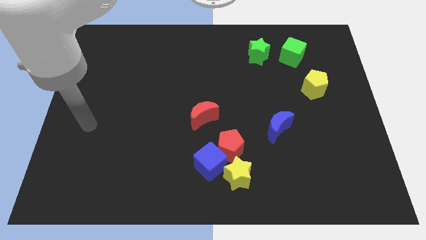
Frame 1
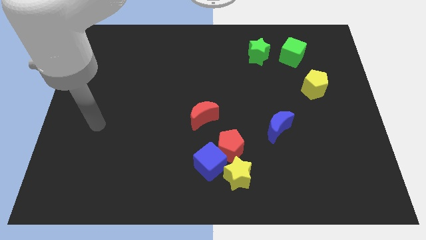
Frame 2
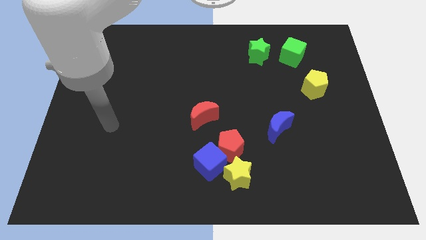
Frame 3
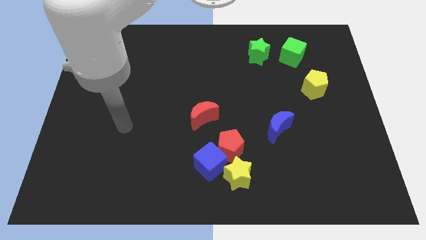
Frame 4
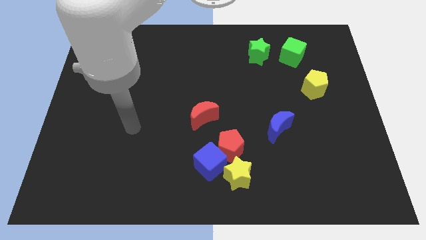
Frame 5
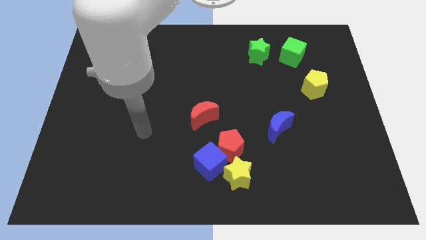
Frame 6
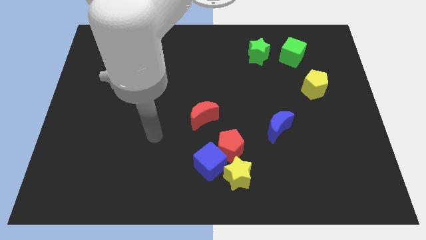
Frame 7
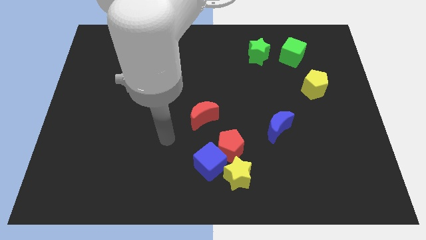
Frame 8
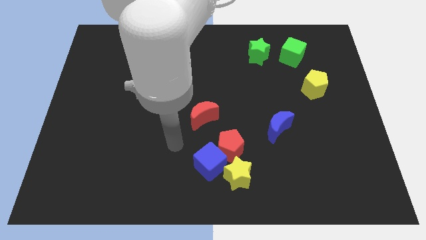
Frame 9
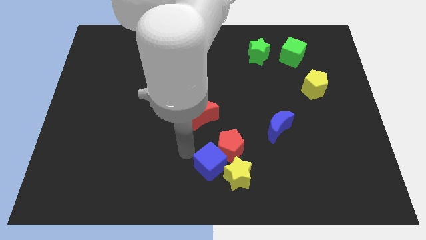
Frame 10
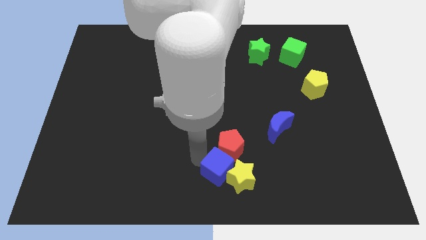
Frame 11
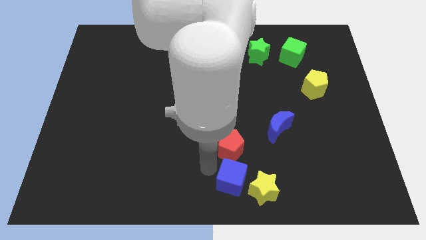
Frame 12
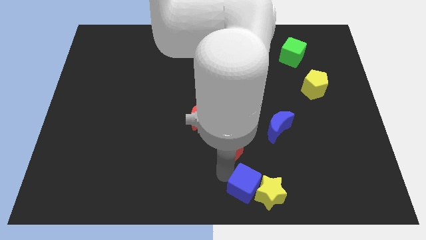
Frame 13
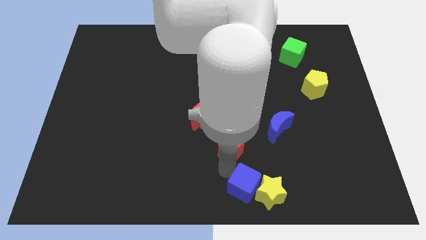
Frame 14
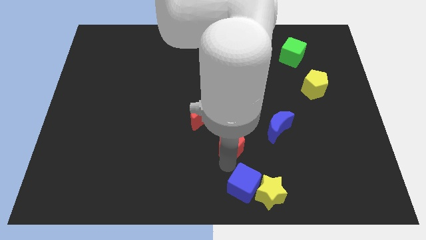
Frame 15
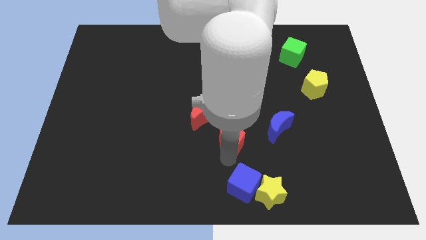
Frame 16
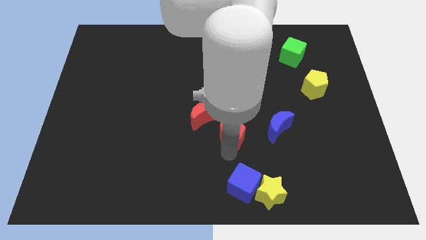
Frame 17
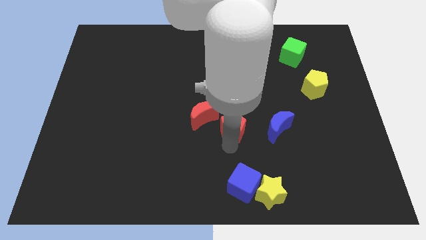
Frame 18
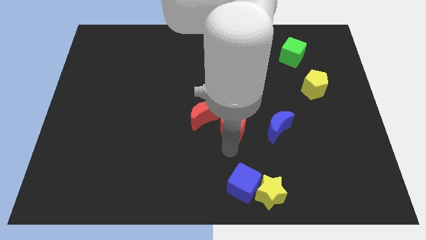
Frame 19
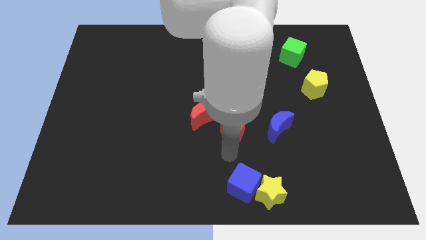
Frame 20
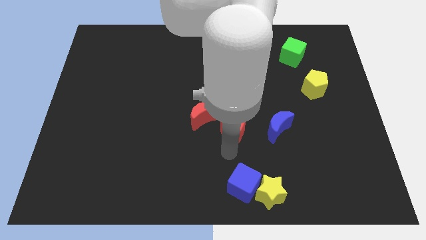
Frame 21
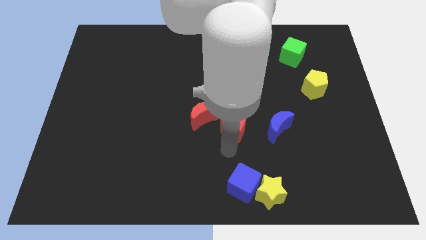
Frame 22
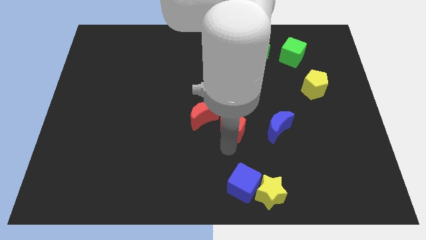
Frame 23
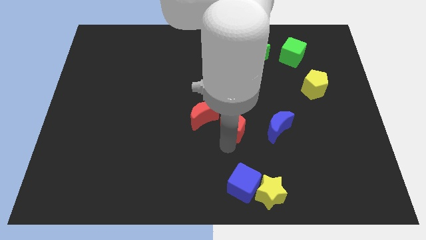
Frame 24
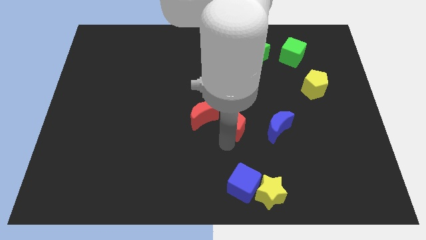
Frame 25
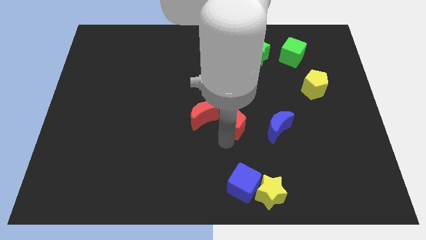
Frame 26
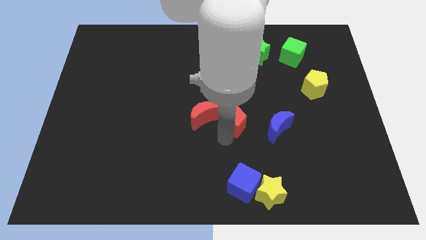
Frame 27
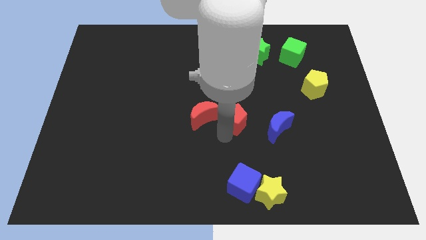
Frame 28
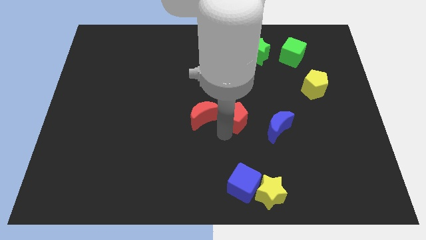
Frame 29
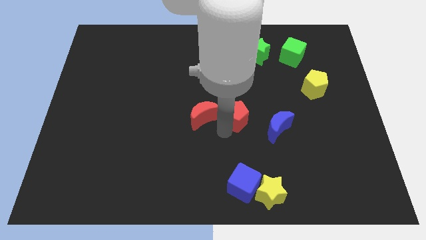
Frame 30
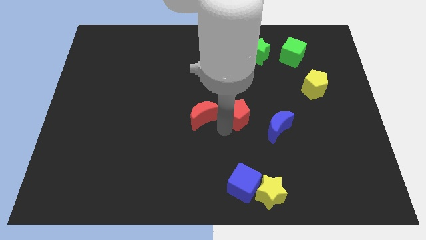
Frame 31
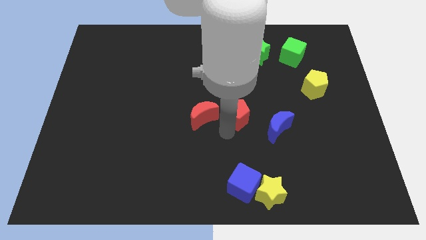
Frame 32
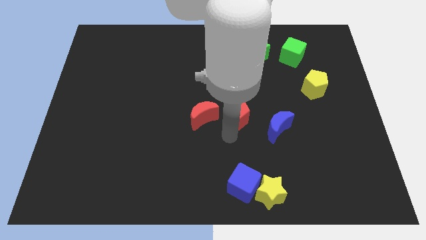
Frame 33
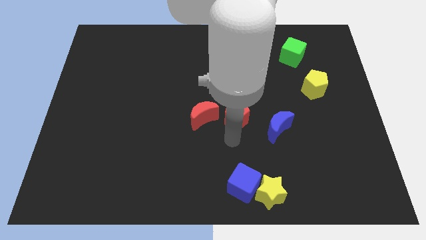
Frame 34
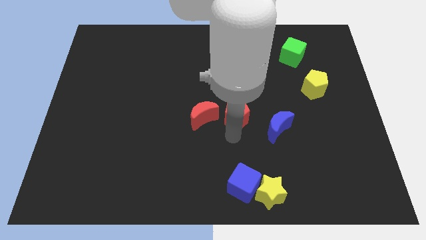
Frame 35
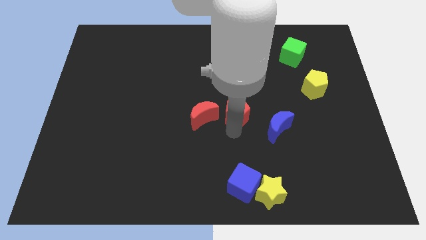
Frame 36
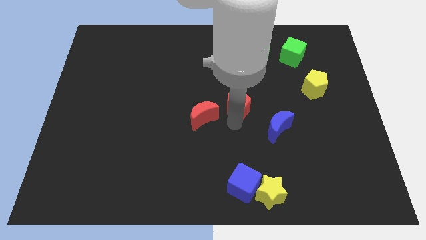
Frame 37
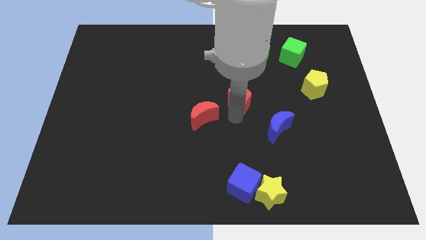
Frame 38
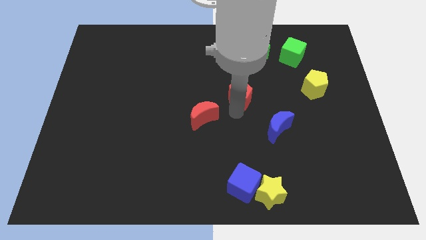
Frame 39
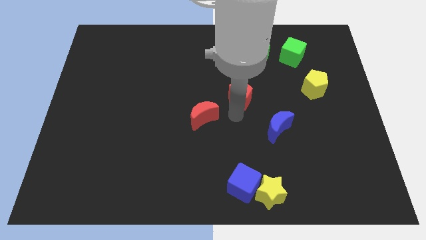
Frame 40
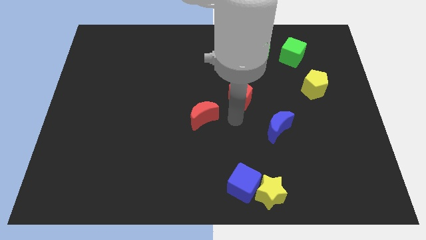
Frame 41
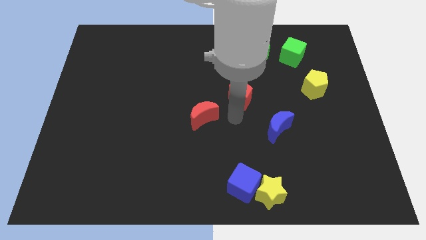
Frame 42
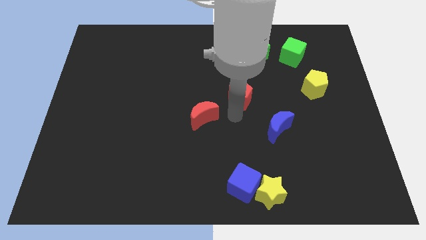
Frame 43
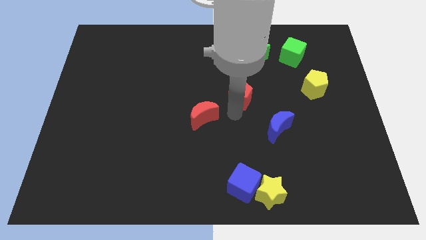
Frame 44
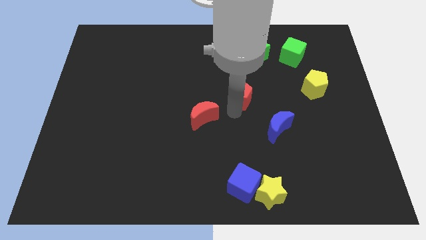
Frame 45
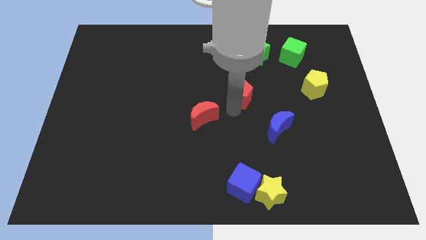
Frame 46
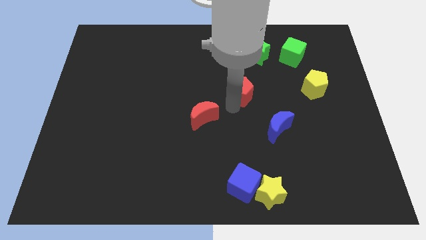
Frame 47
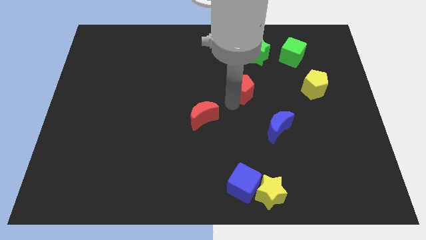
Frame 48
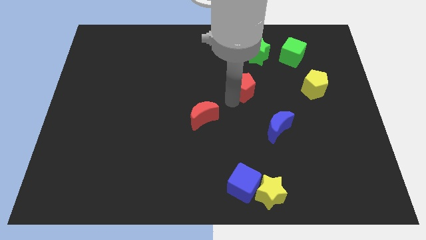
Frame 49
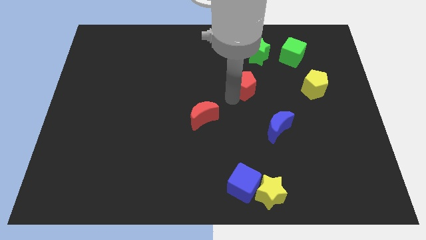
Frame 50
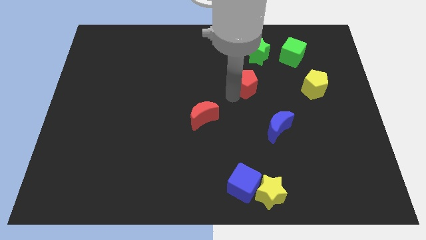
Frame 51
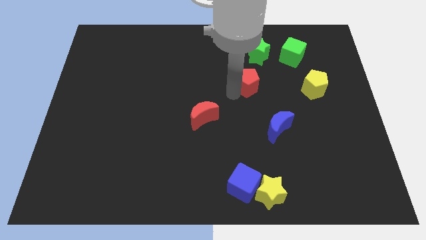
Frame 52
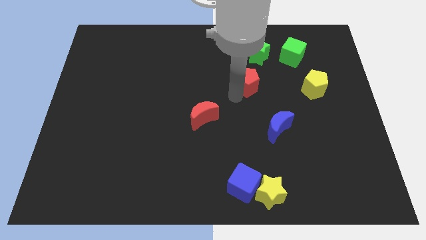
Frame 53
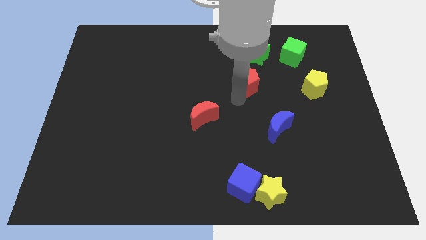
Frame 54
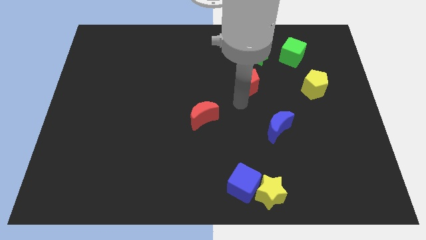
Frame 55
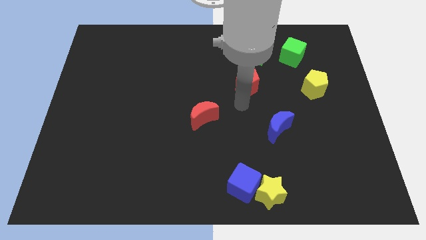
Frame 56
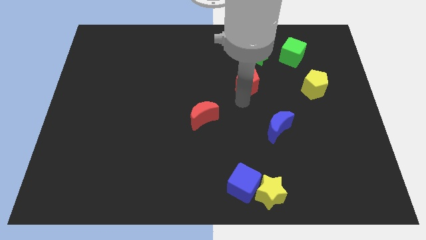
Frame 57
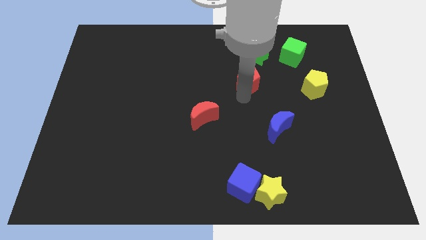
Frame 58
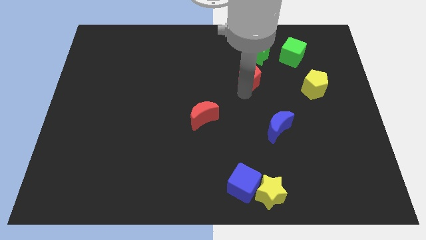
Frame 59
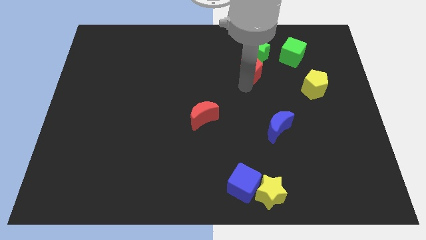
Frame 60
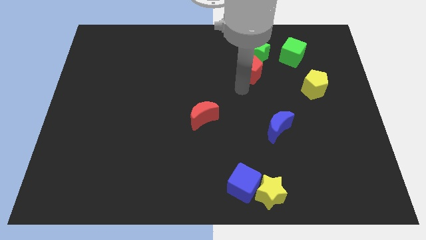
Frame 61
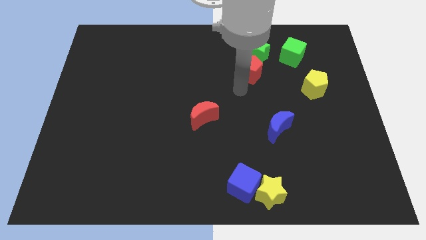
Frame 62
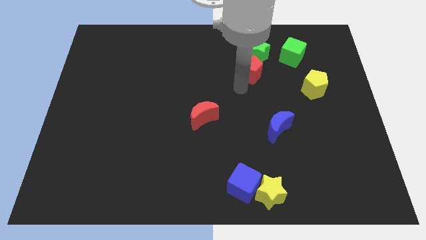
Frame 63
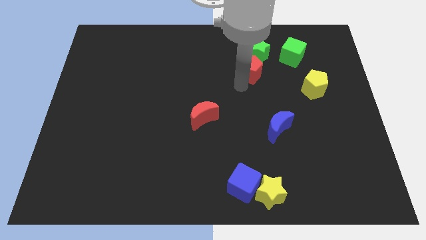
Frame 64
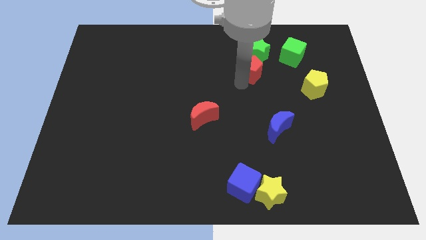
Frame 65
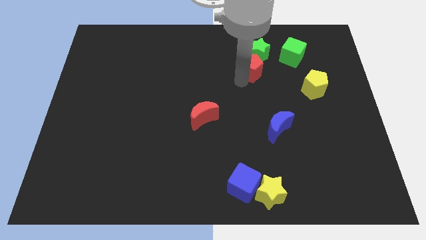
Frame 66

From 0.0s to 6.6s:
move the red pentagon close to the green star

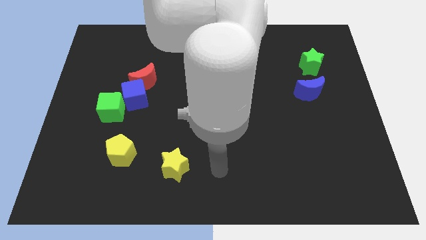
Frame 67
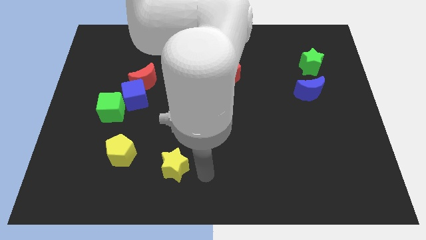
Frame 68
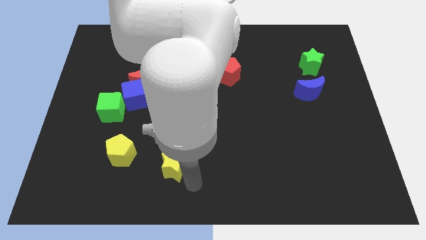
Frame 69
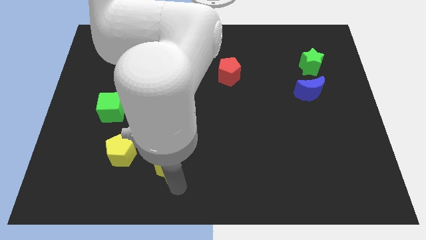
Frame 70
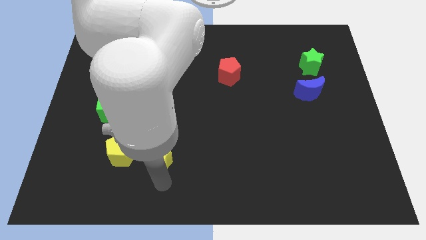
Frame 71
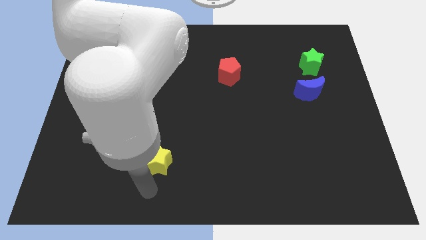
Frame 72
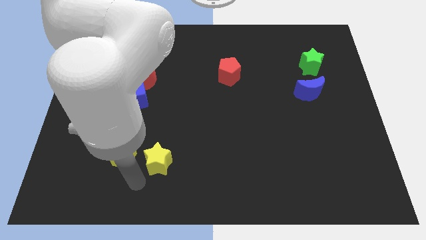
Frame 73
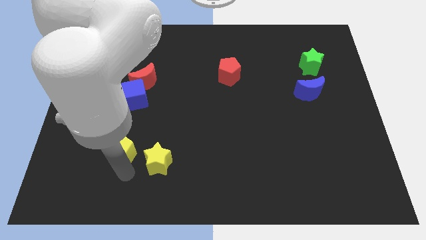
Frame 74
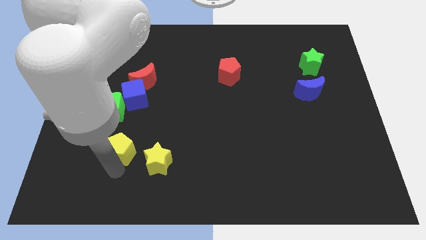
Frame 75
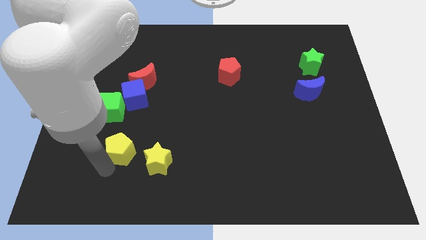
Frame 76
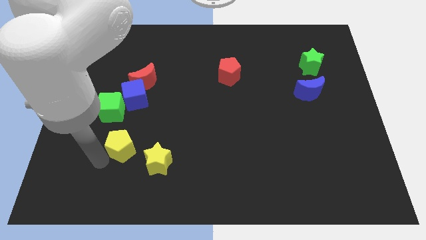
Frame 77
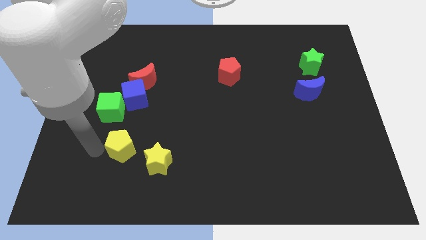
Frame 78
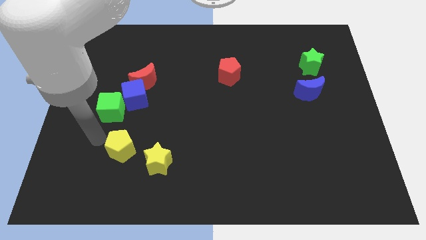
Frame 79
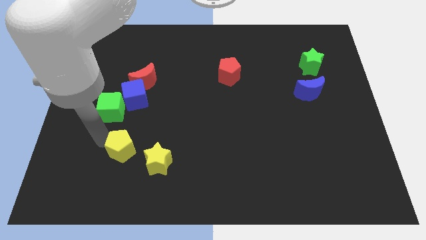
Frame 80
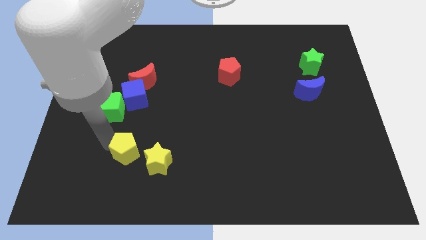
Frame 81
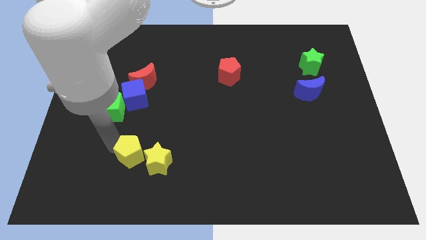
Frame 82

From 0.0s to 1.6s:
move the yellow pentagon close to the yellow star
